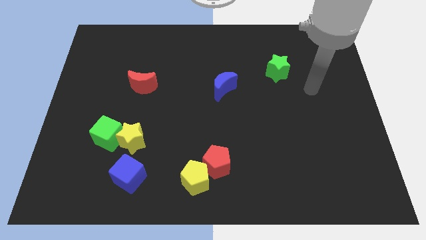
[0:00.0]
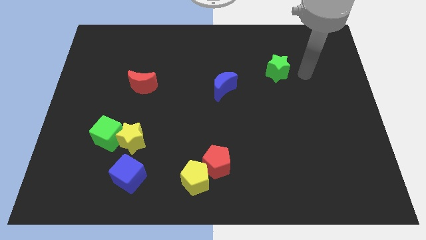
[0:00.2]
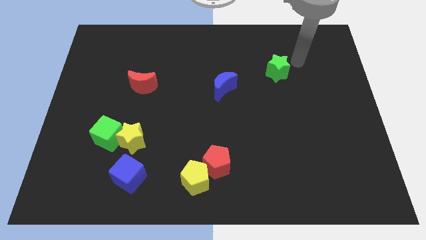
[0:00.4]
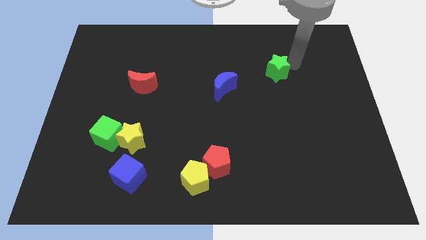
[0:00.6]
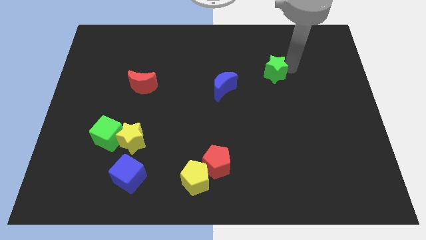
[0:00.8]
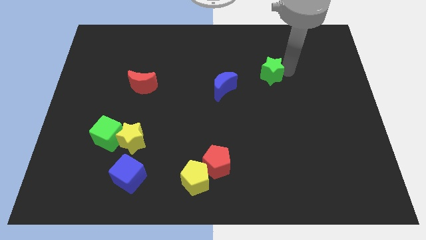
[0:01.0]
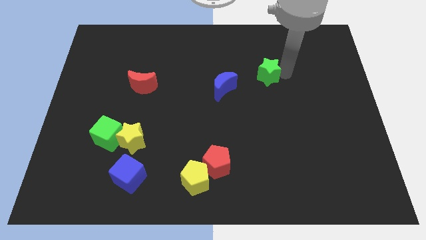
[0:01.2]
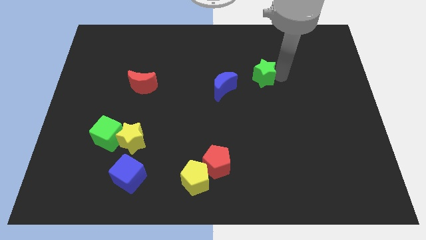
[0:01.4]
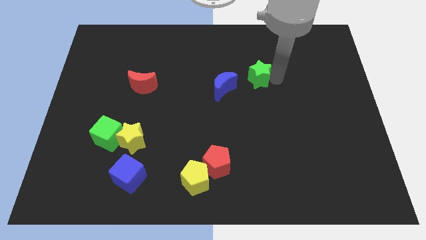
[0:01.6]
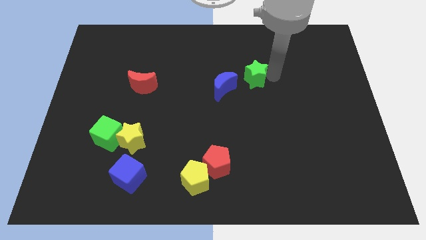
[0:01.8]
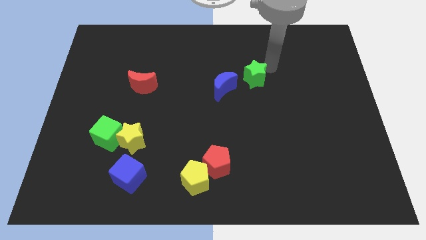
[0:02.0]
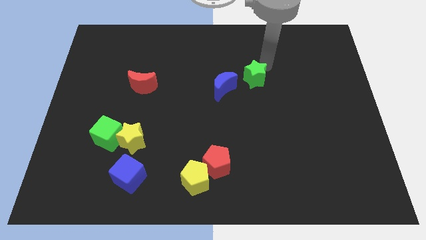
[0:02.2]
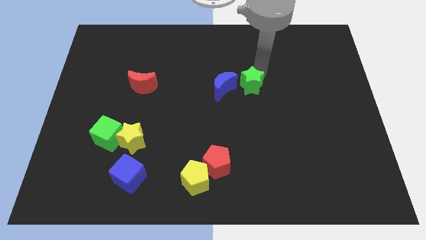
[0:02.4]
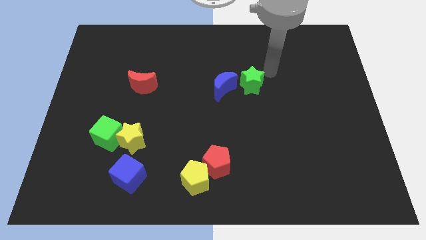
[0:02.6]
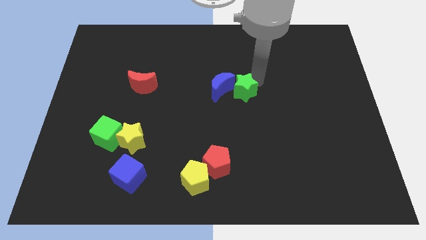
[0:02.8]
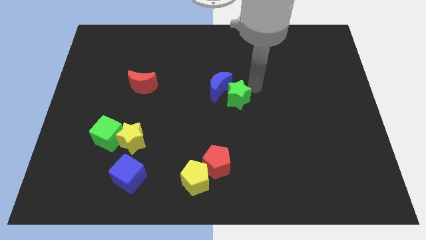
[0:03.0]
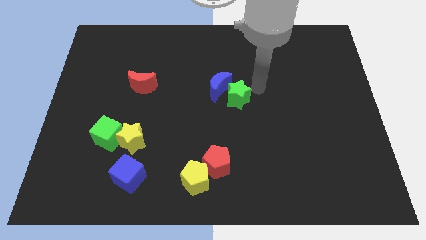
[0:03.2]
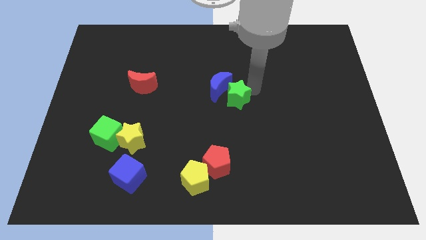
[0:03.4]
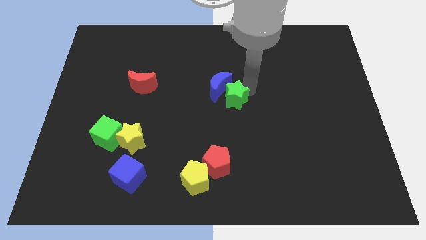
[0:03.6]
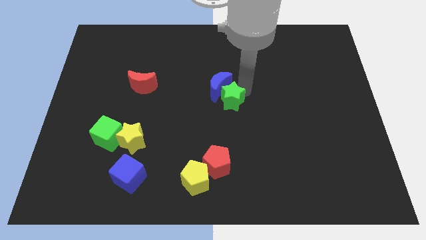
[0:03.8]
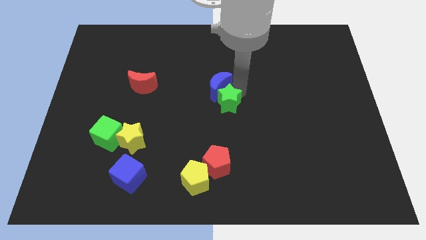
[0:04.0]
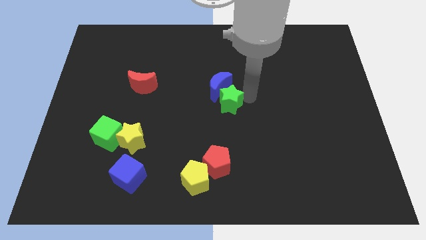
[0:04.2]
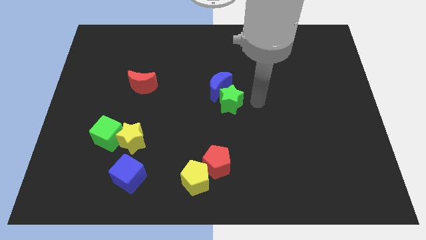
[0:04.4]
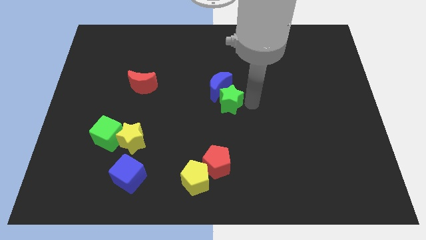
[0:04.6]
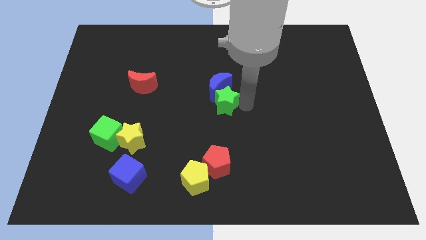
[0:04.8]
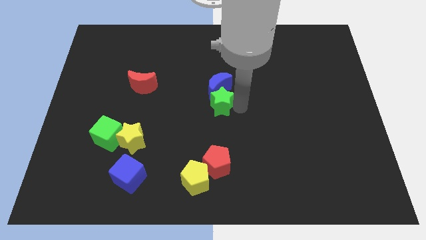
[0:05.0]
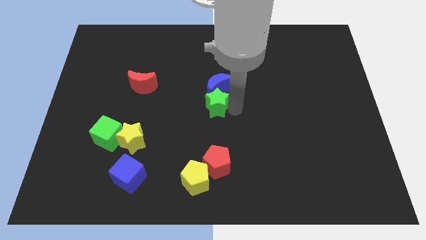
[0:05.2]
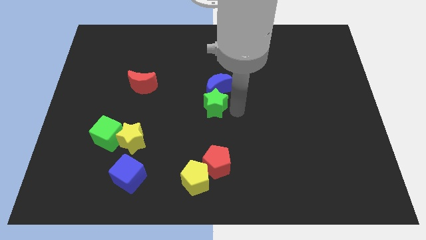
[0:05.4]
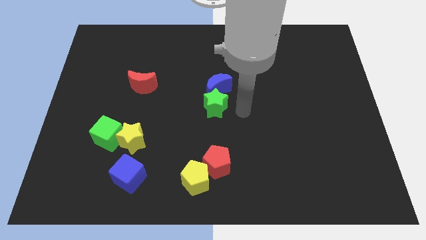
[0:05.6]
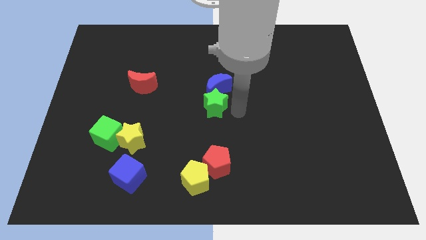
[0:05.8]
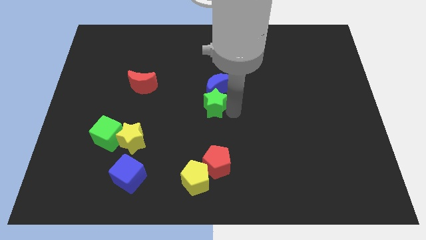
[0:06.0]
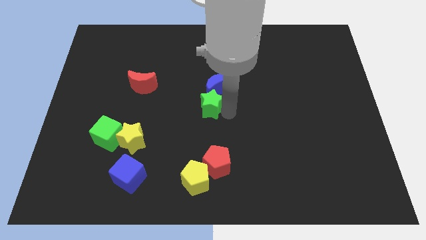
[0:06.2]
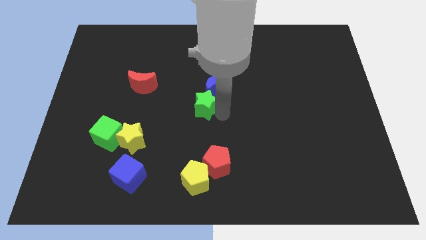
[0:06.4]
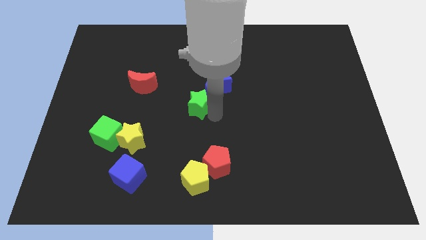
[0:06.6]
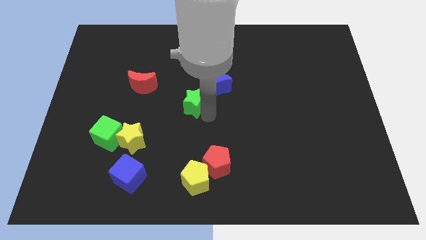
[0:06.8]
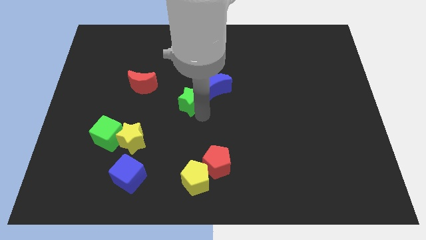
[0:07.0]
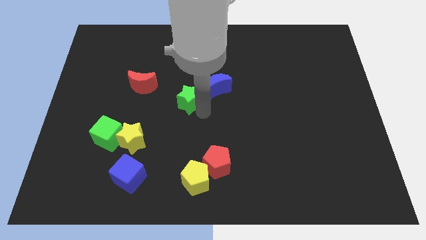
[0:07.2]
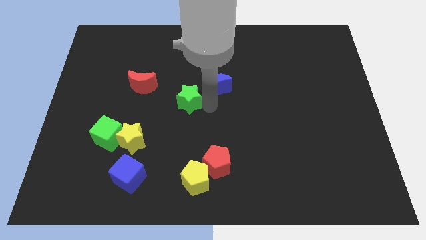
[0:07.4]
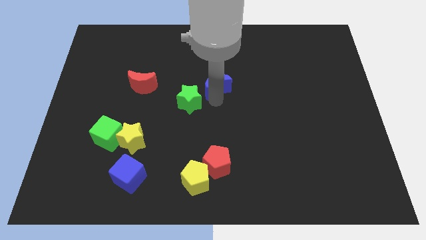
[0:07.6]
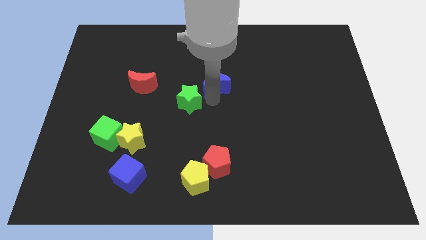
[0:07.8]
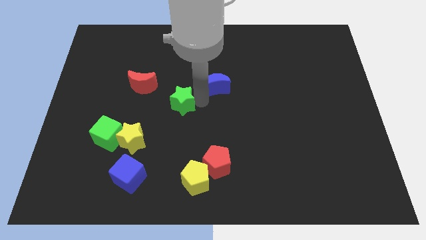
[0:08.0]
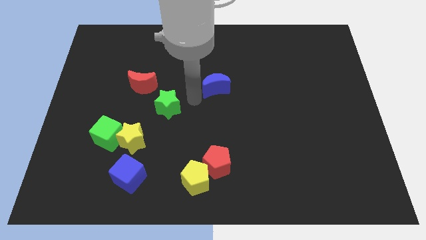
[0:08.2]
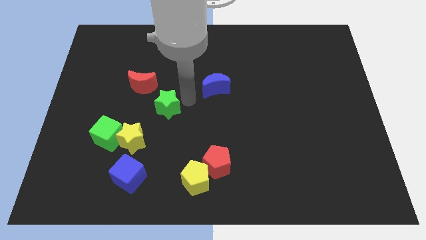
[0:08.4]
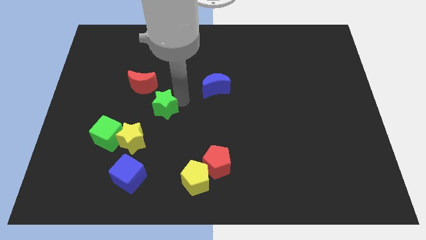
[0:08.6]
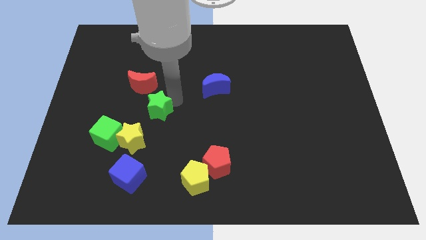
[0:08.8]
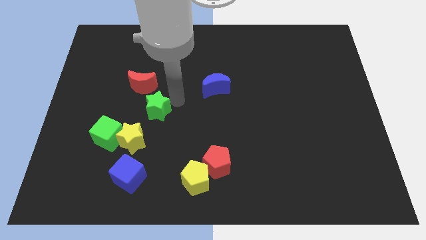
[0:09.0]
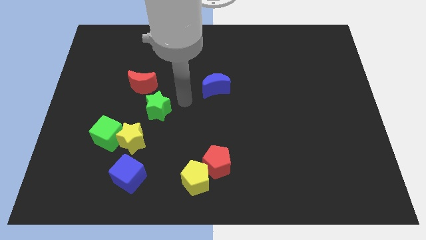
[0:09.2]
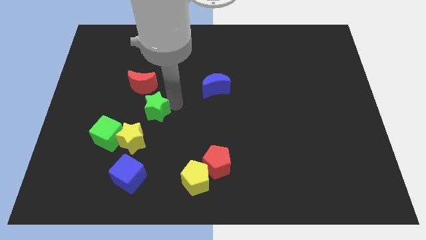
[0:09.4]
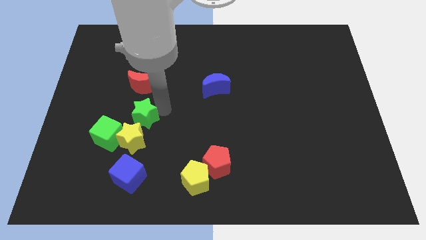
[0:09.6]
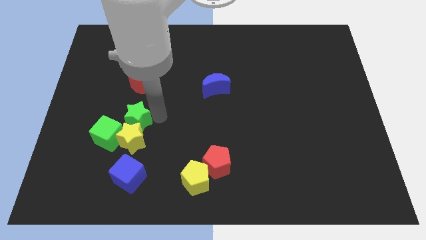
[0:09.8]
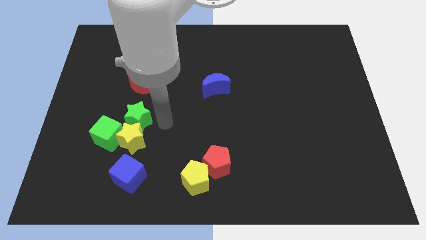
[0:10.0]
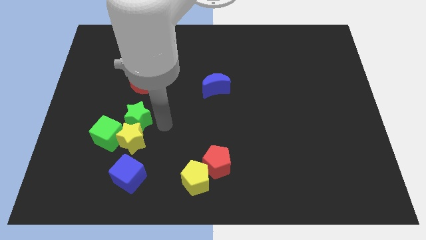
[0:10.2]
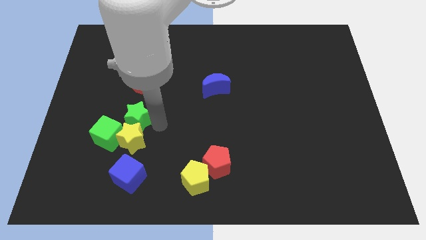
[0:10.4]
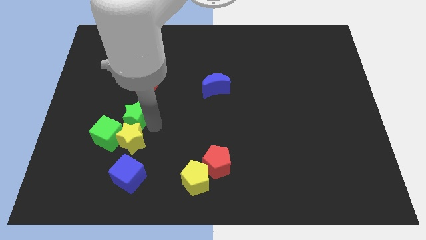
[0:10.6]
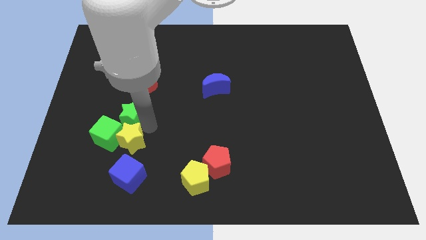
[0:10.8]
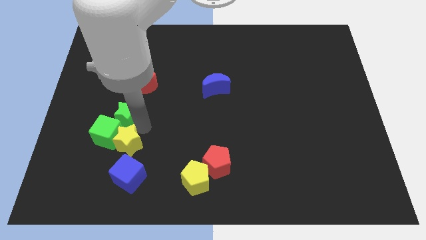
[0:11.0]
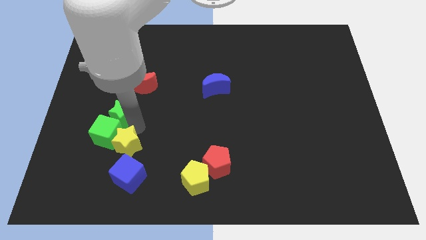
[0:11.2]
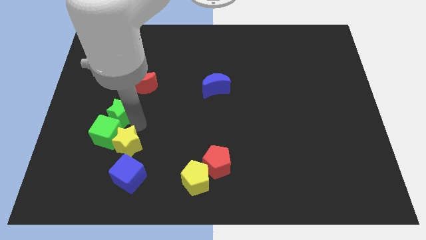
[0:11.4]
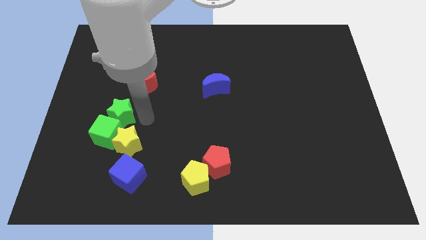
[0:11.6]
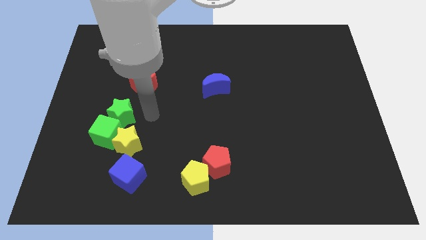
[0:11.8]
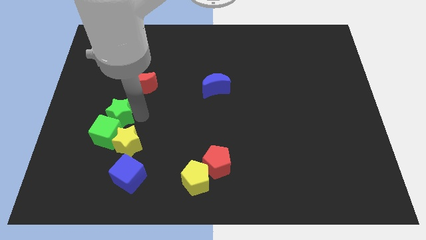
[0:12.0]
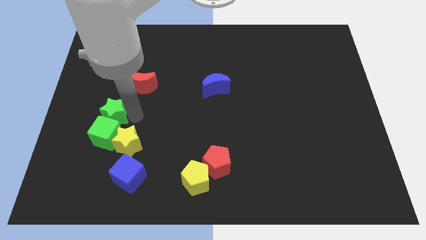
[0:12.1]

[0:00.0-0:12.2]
push the green star to the top left of the green cube
